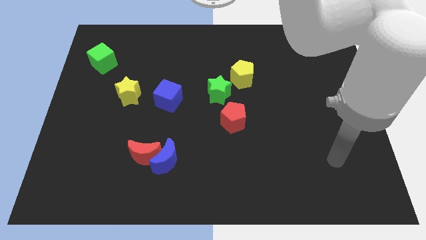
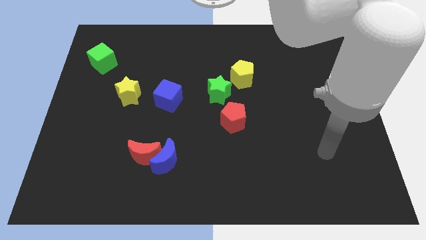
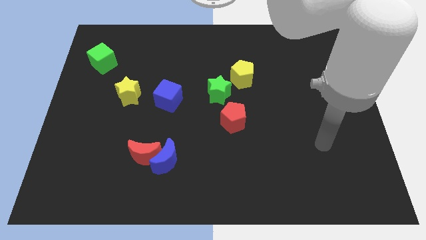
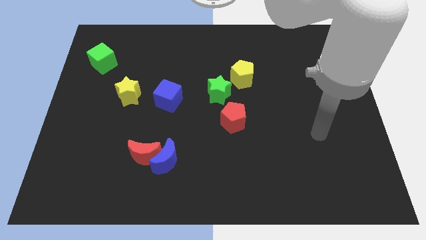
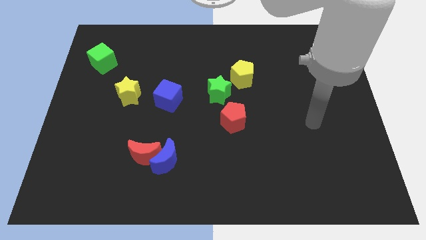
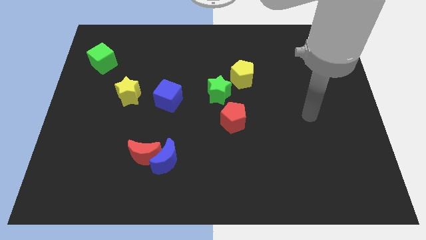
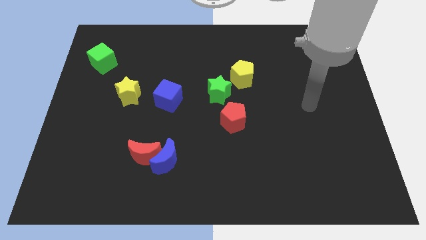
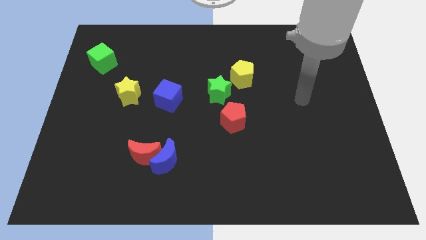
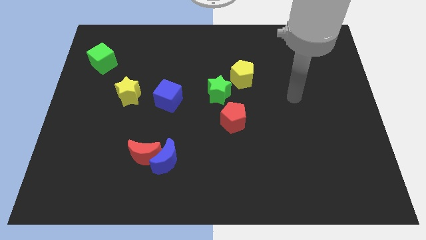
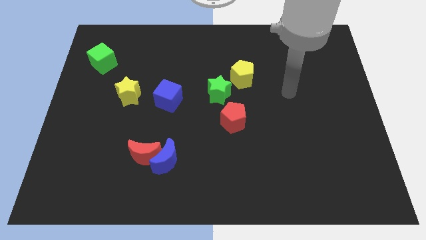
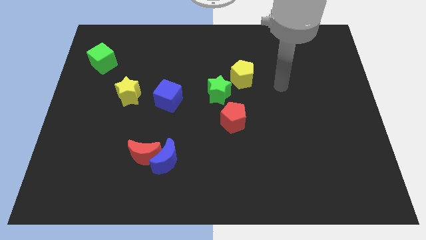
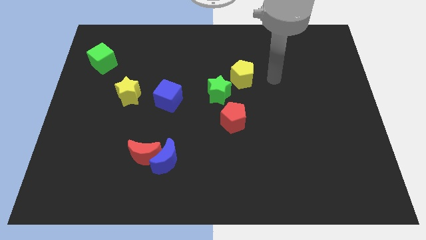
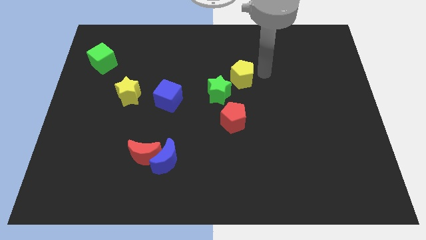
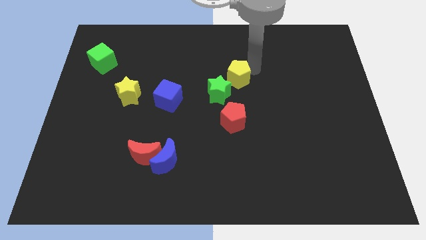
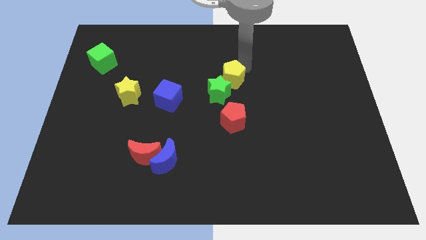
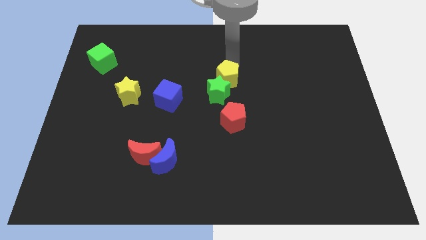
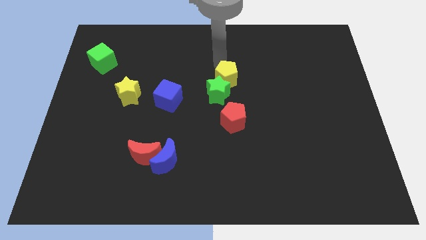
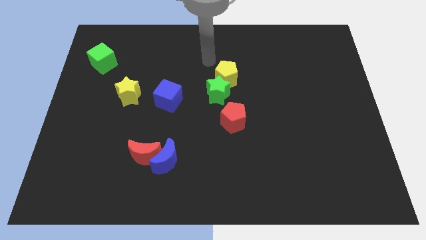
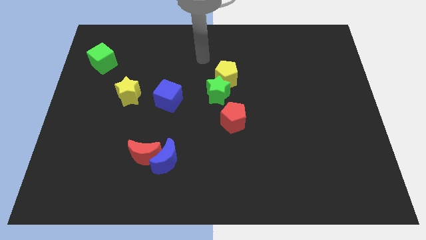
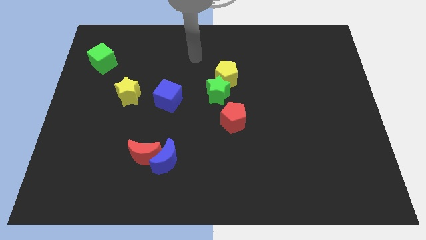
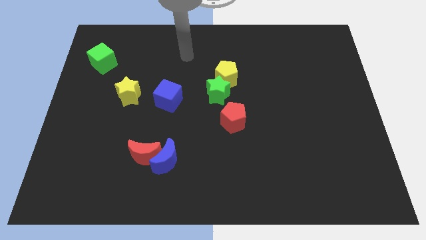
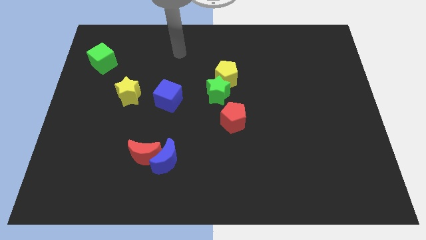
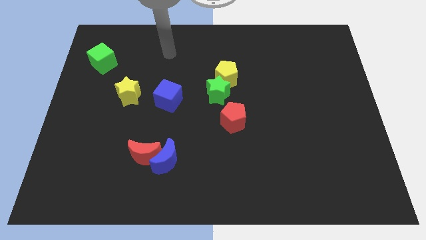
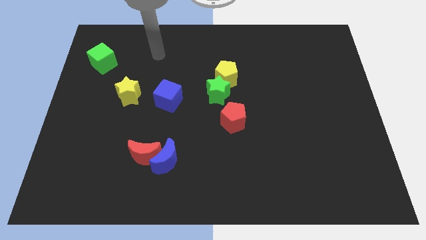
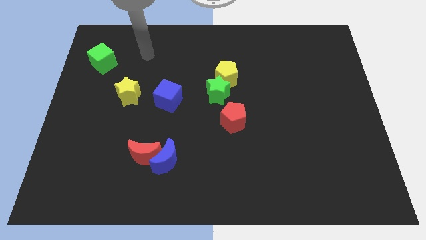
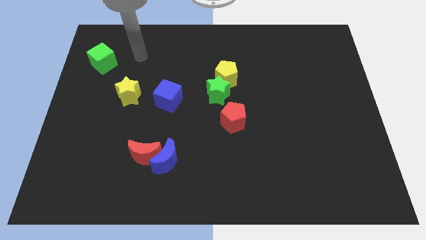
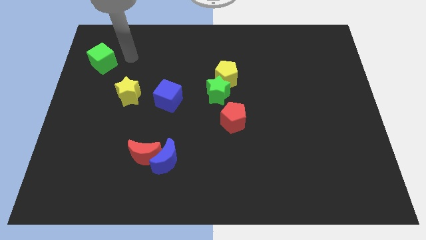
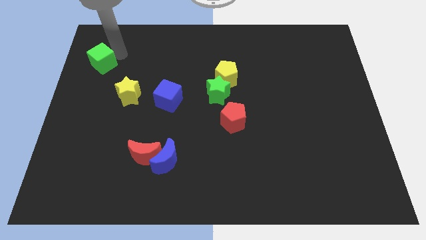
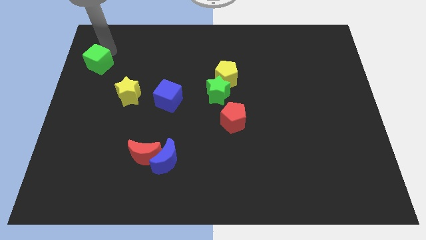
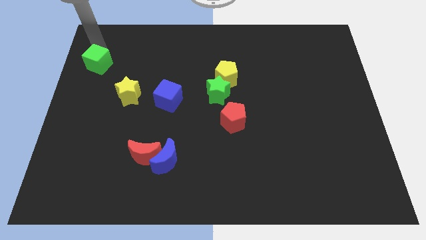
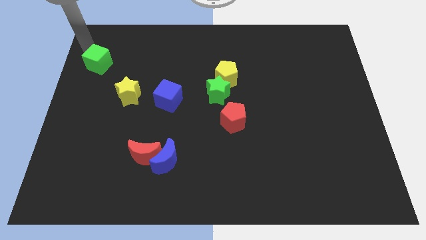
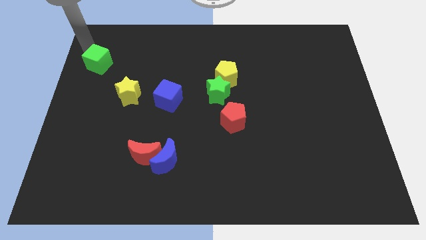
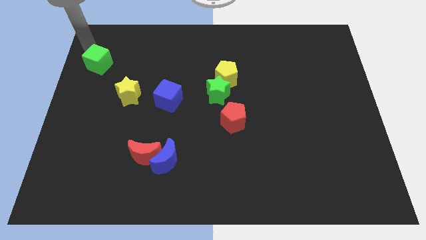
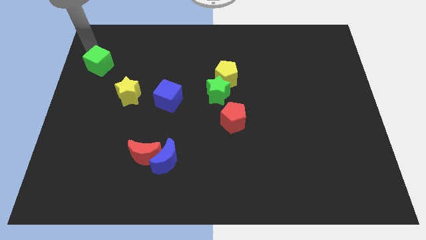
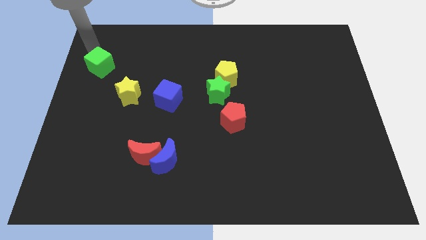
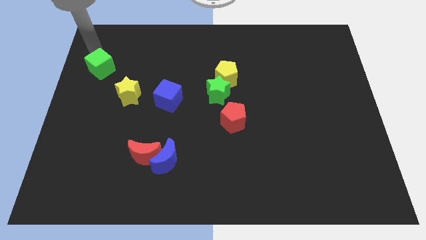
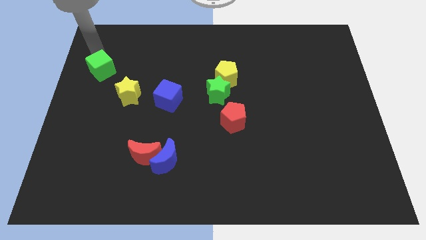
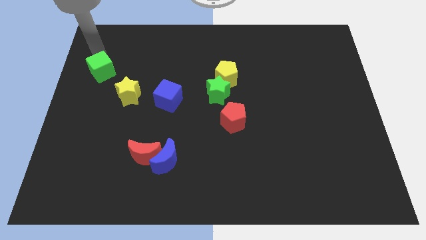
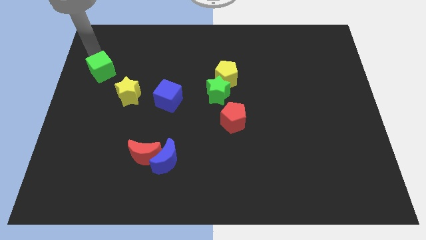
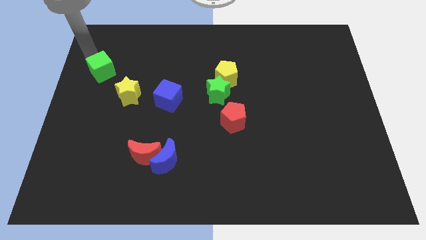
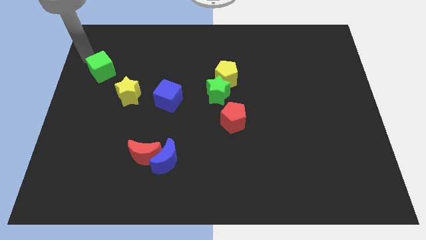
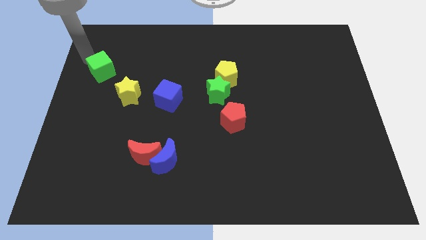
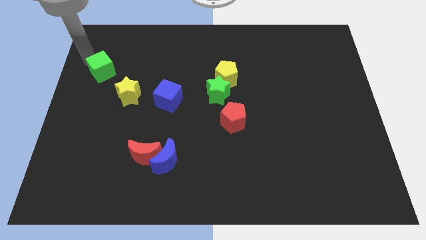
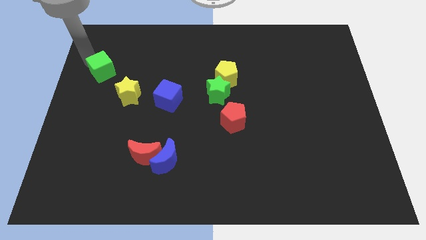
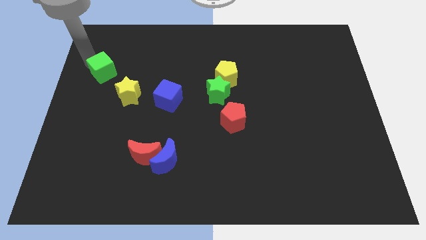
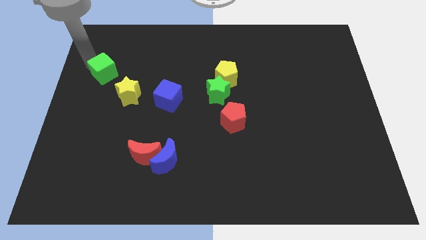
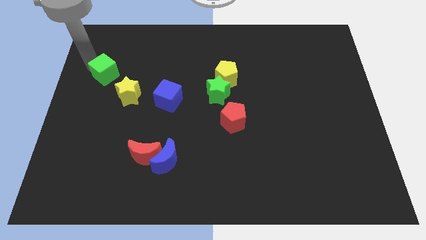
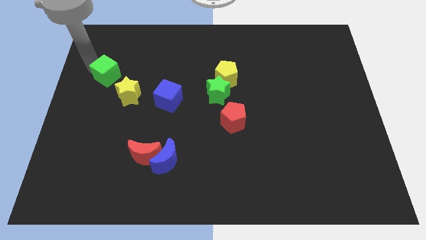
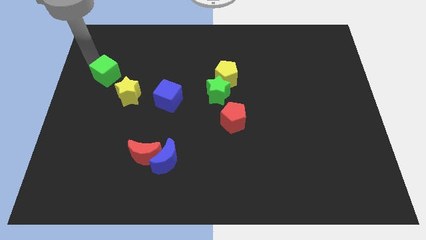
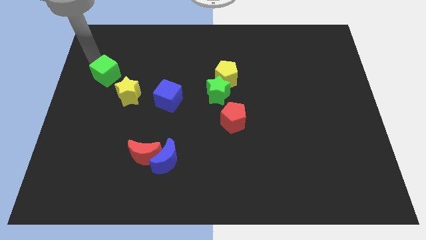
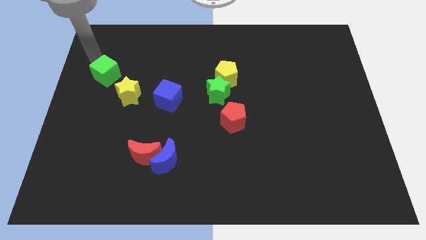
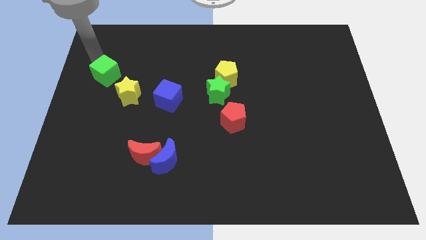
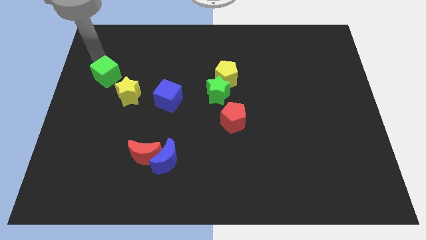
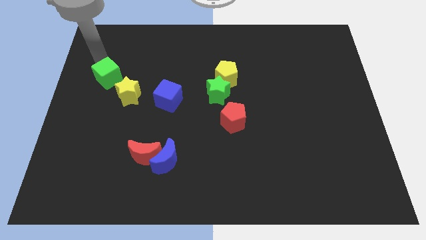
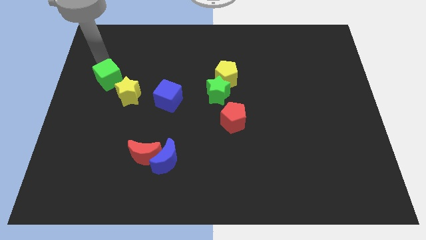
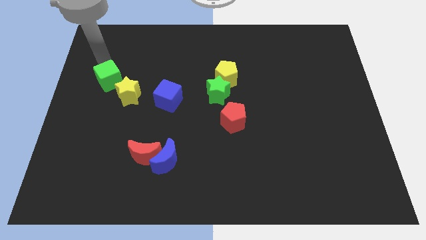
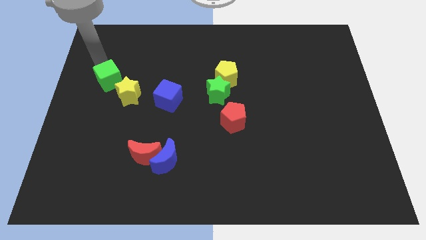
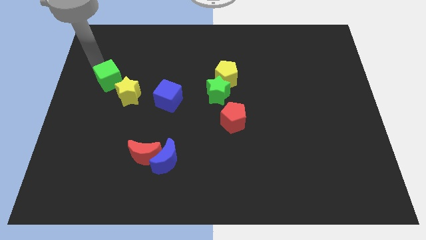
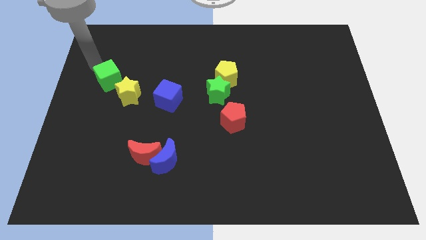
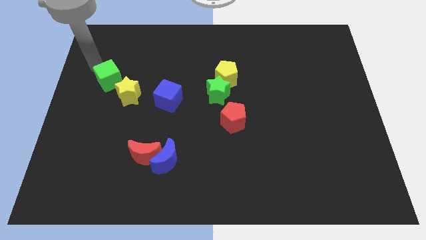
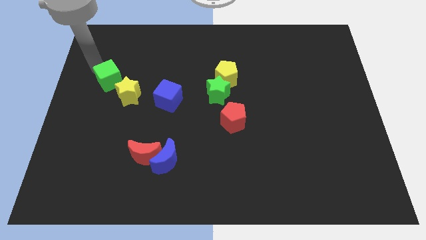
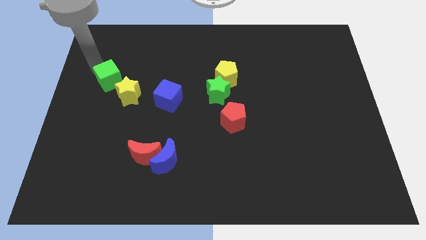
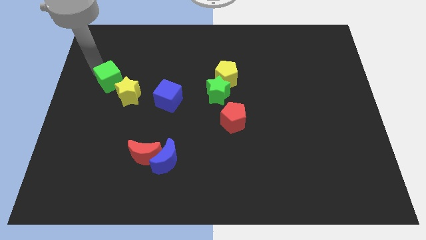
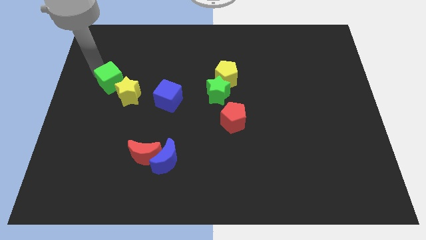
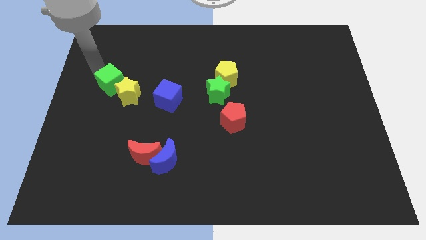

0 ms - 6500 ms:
slide the green cube to the yellow star

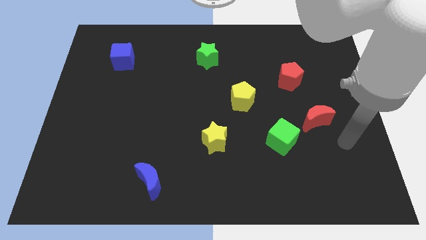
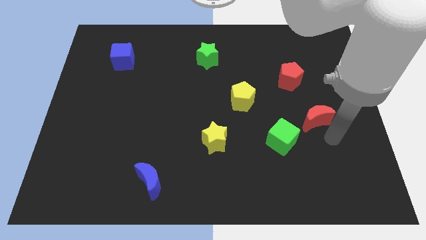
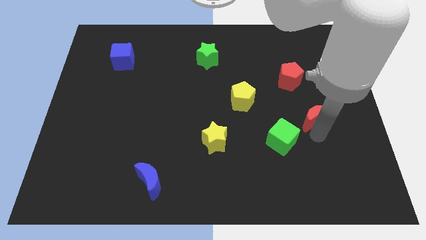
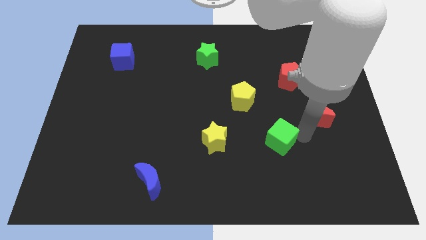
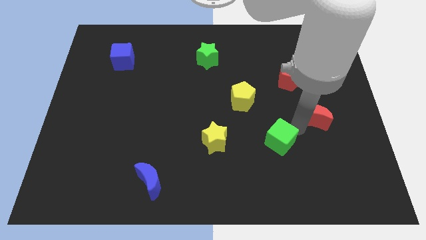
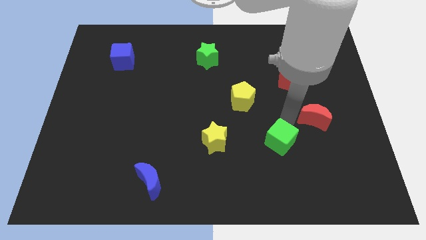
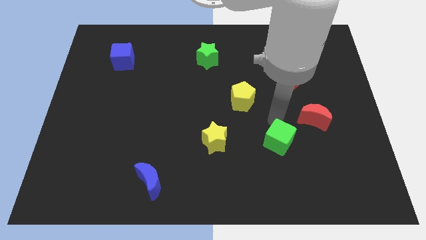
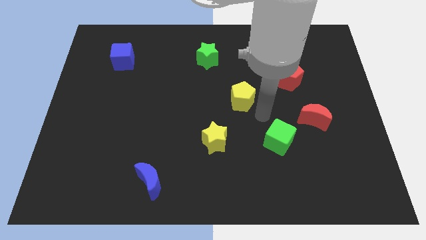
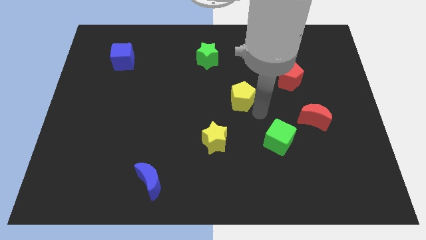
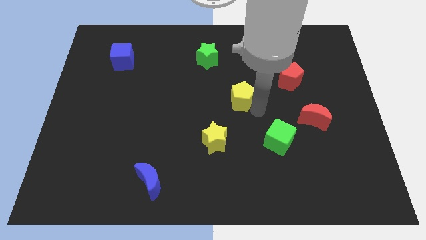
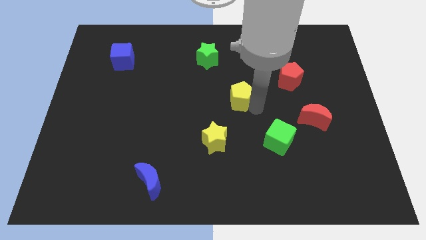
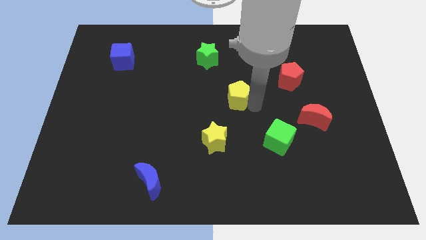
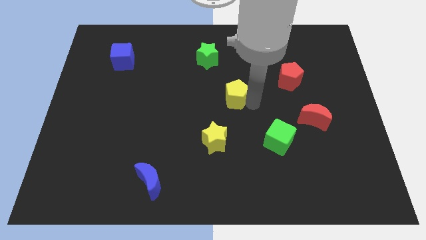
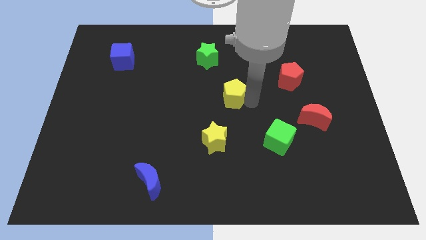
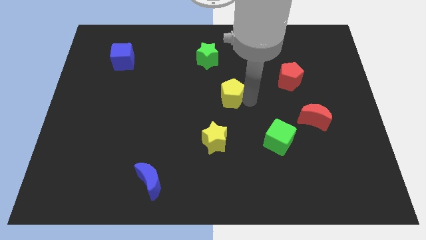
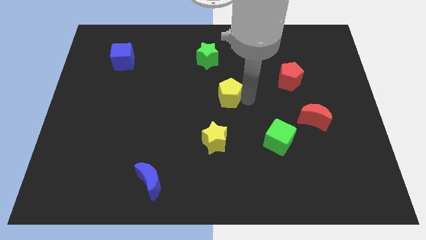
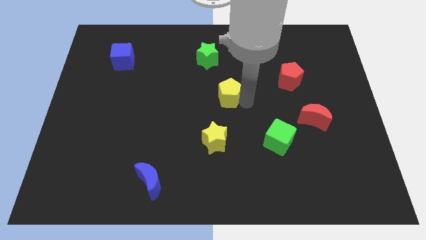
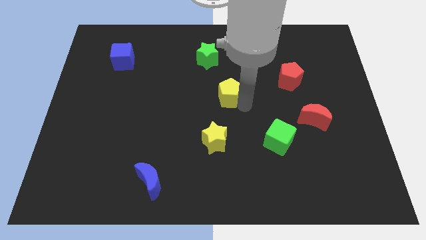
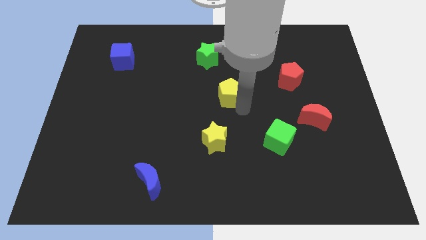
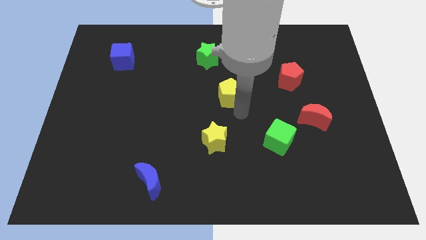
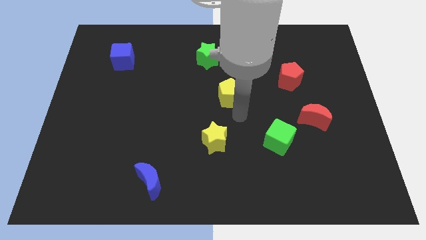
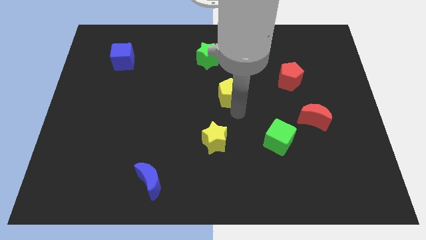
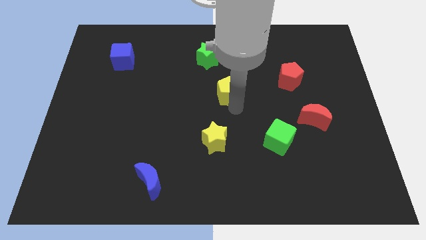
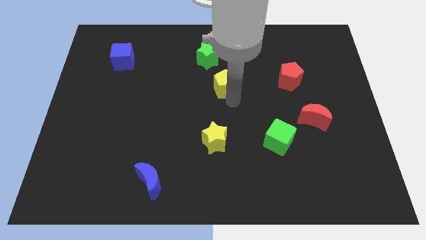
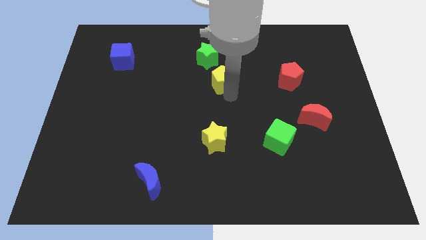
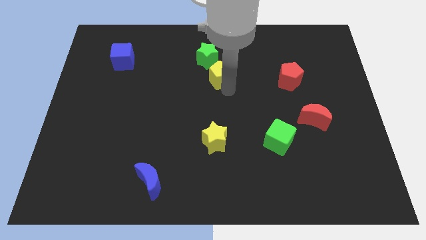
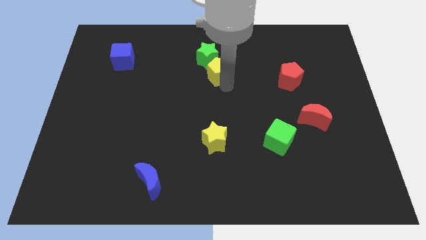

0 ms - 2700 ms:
slide the yellow pentagon next to the green star
